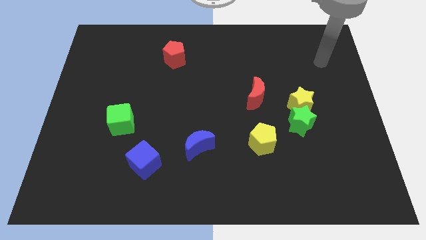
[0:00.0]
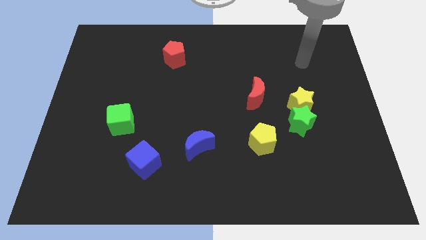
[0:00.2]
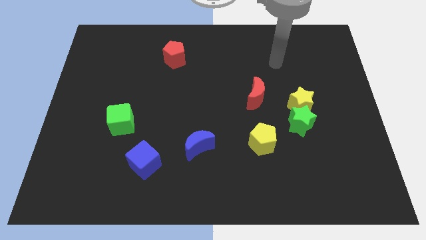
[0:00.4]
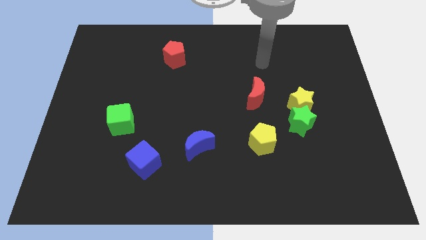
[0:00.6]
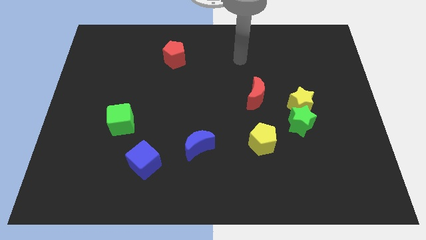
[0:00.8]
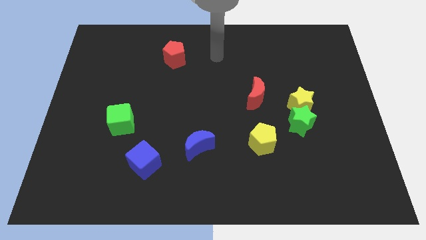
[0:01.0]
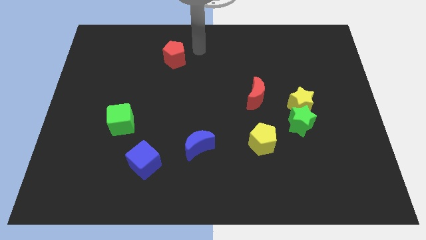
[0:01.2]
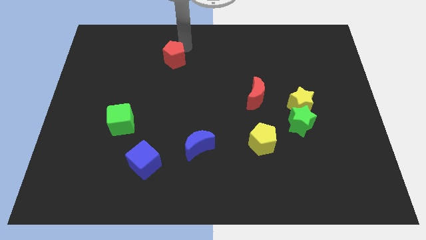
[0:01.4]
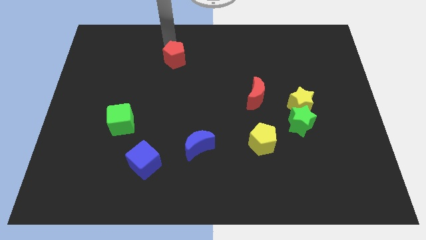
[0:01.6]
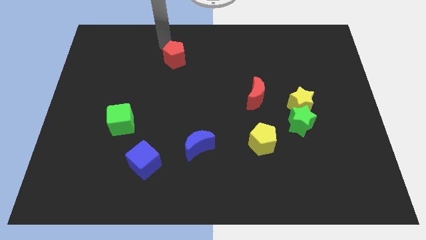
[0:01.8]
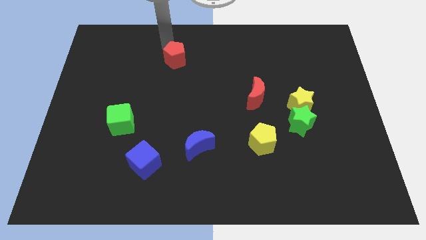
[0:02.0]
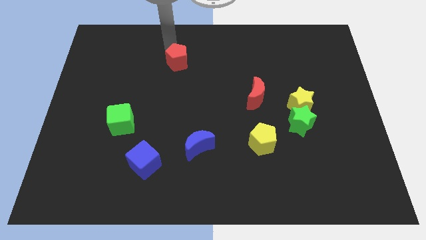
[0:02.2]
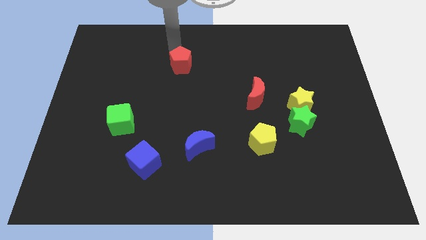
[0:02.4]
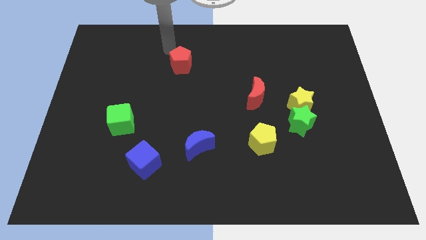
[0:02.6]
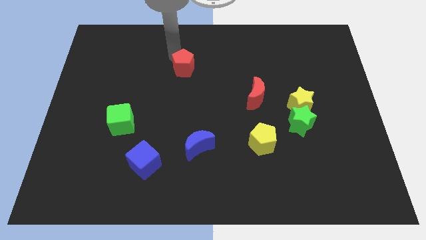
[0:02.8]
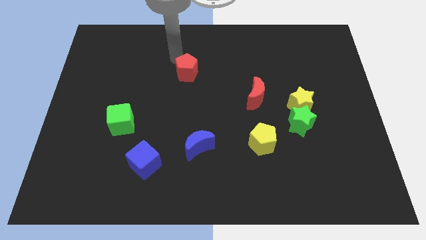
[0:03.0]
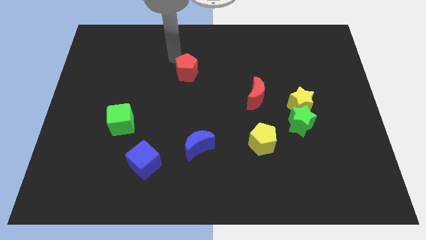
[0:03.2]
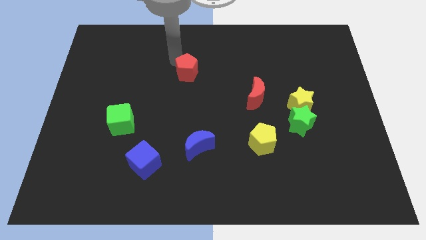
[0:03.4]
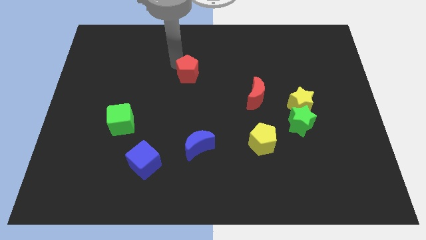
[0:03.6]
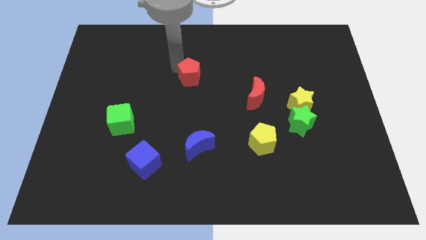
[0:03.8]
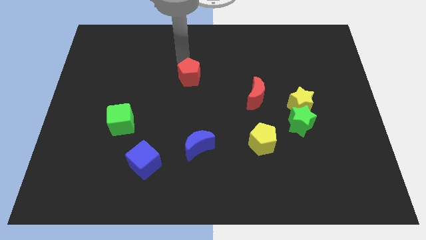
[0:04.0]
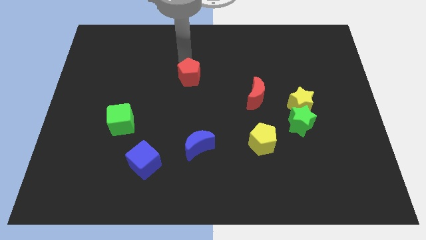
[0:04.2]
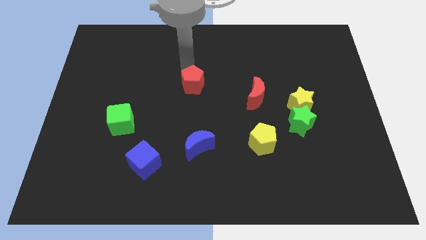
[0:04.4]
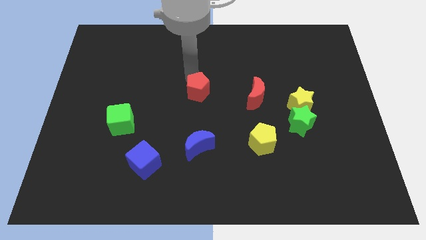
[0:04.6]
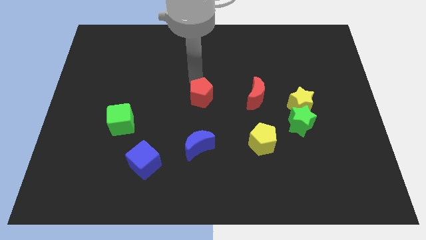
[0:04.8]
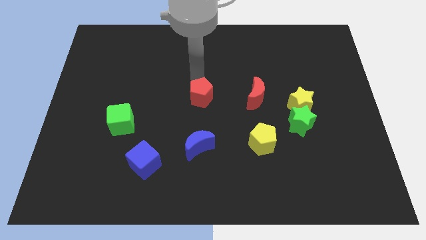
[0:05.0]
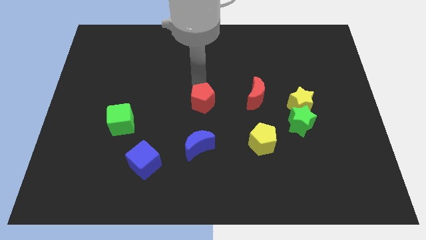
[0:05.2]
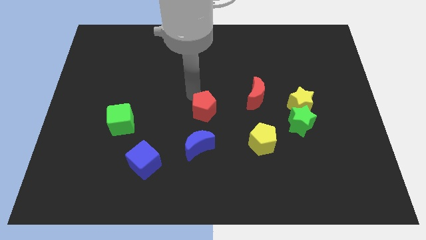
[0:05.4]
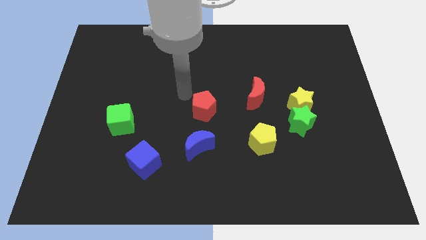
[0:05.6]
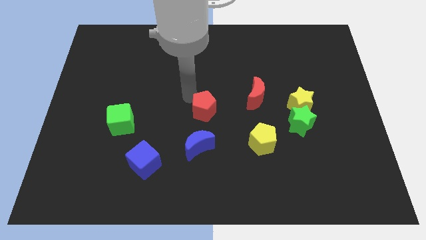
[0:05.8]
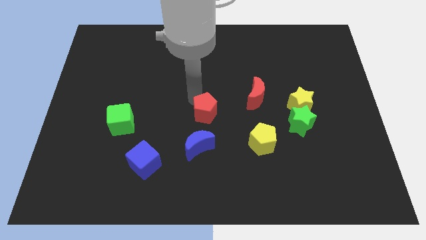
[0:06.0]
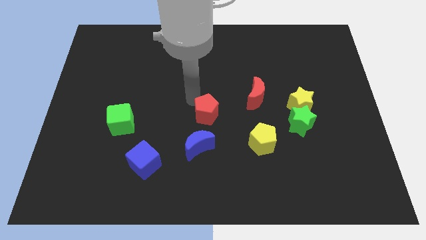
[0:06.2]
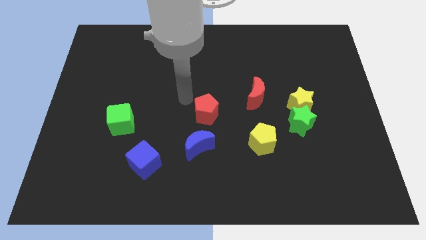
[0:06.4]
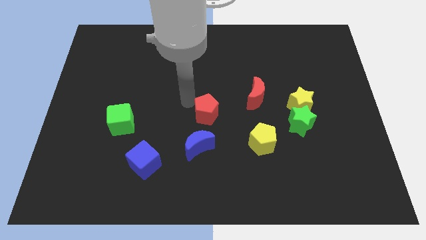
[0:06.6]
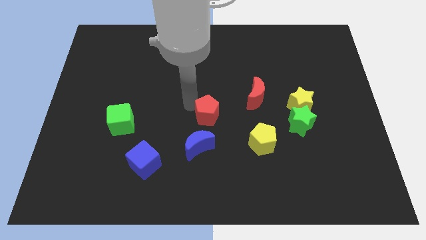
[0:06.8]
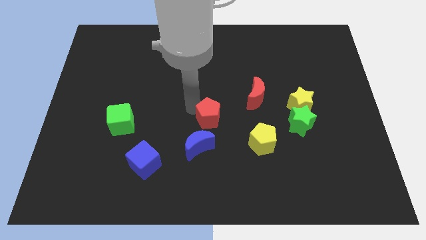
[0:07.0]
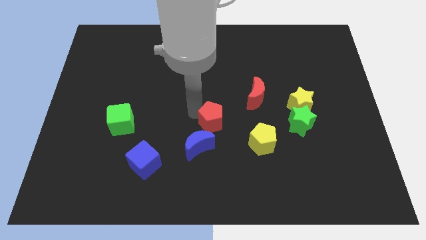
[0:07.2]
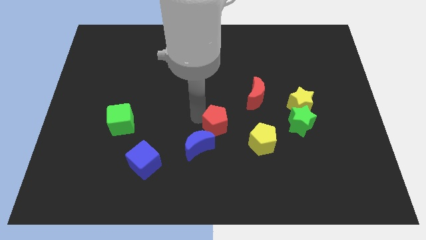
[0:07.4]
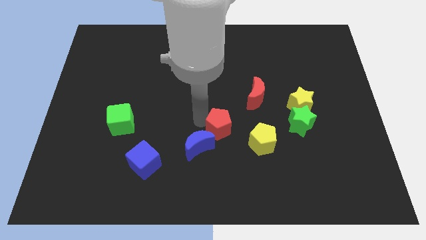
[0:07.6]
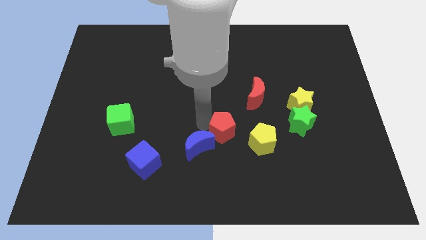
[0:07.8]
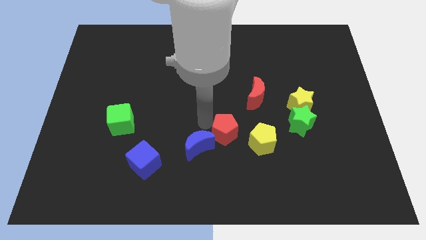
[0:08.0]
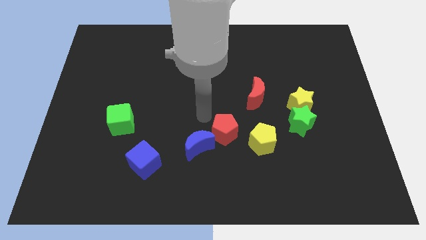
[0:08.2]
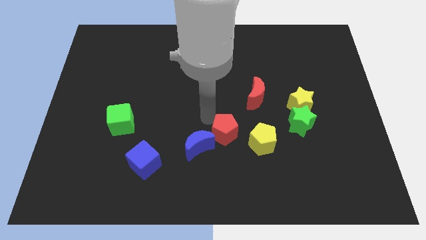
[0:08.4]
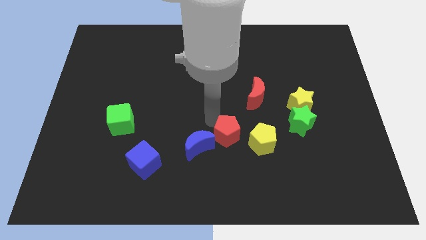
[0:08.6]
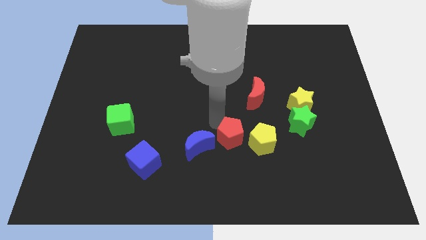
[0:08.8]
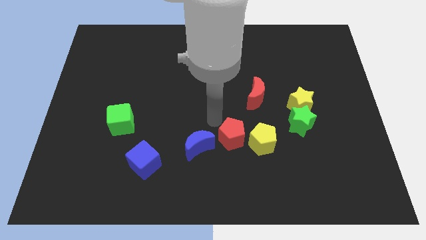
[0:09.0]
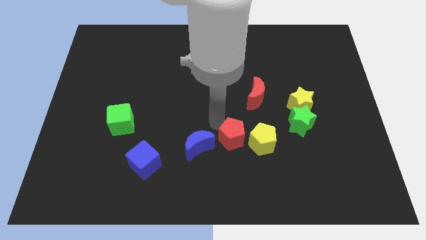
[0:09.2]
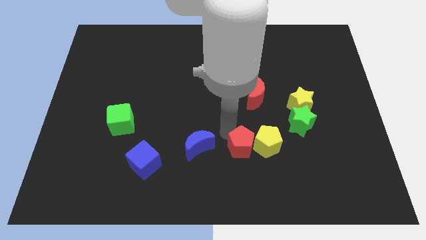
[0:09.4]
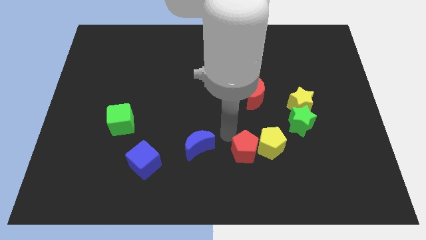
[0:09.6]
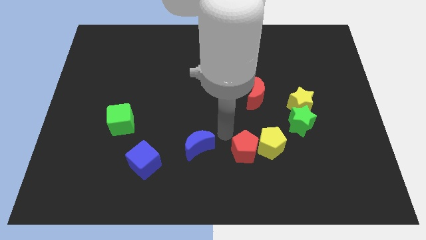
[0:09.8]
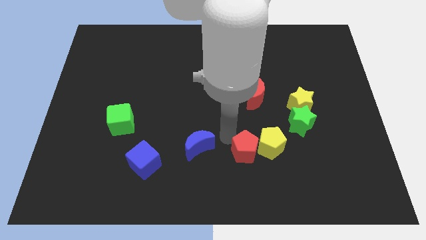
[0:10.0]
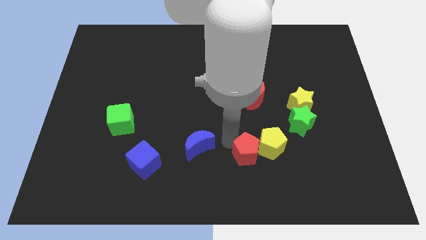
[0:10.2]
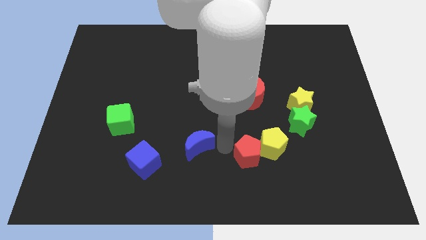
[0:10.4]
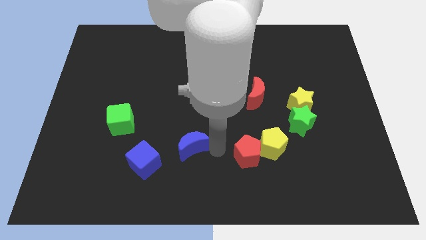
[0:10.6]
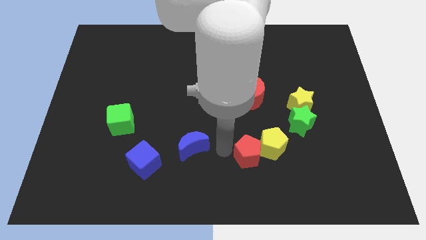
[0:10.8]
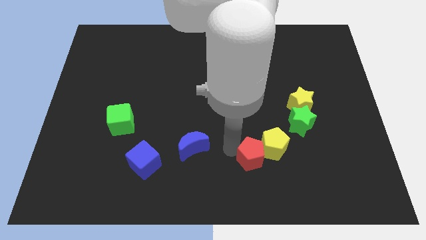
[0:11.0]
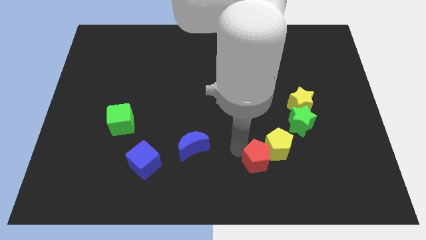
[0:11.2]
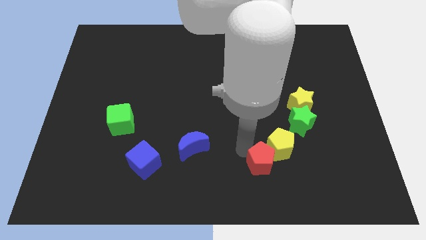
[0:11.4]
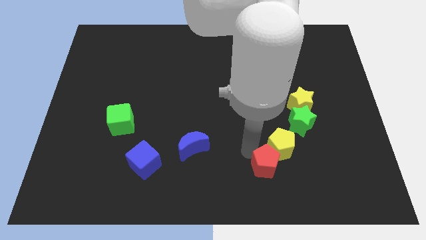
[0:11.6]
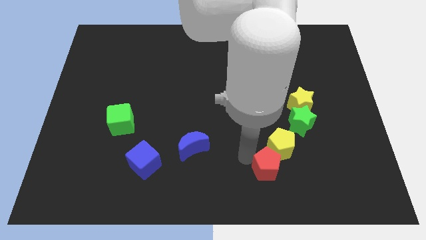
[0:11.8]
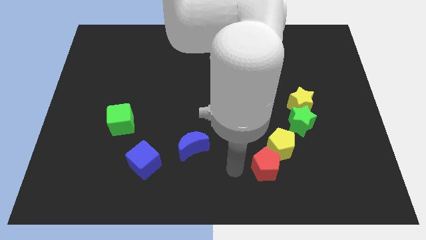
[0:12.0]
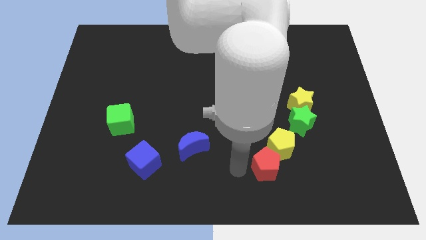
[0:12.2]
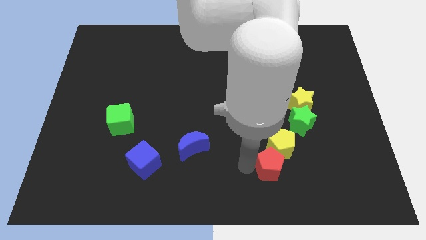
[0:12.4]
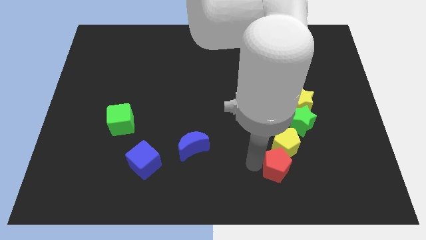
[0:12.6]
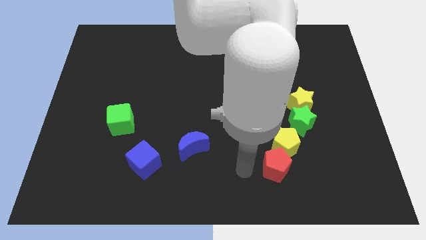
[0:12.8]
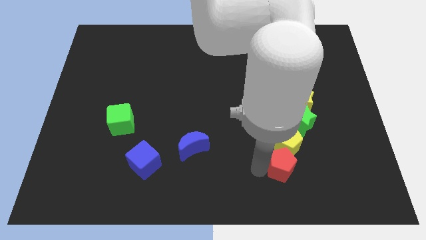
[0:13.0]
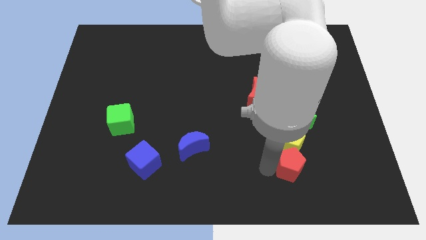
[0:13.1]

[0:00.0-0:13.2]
push the red pentagon to the bottom side of the green star
